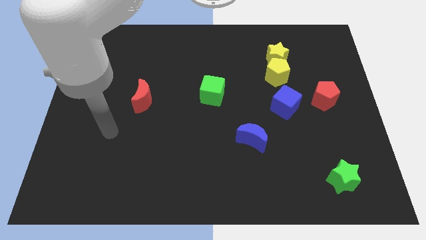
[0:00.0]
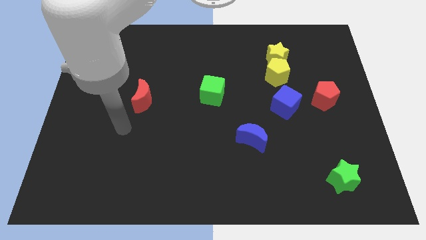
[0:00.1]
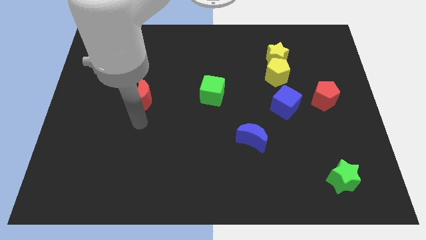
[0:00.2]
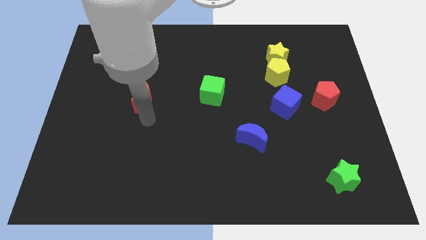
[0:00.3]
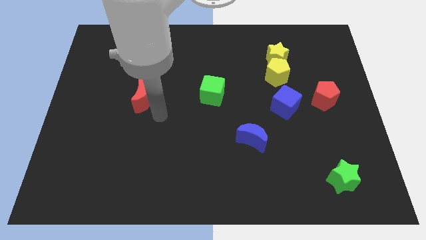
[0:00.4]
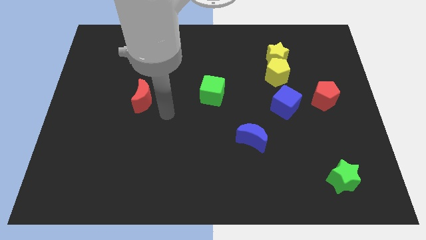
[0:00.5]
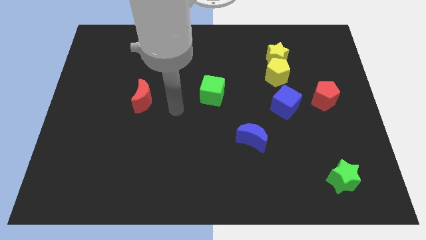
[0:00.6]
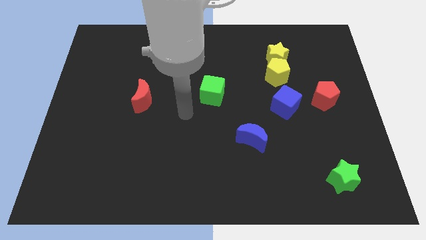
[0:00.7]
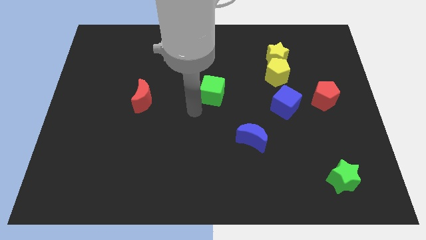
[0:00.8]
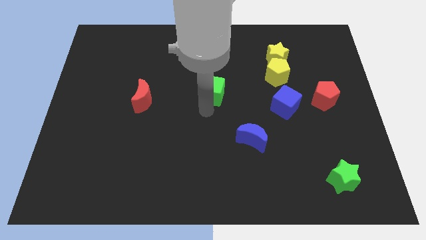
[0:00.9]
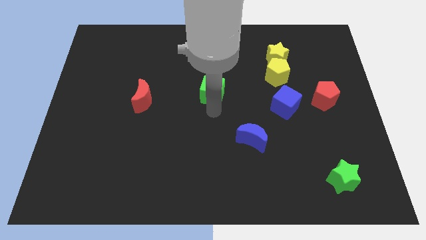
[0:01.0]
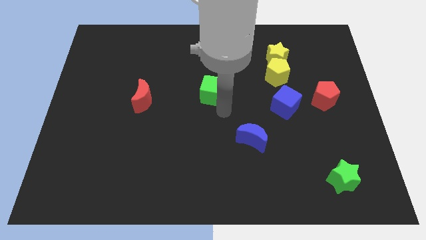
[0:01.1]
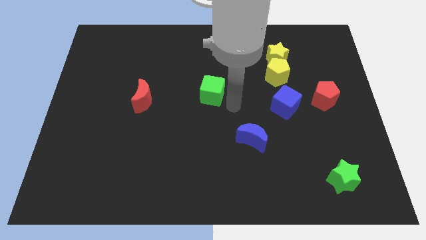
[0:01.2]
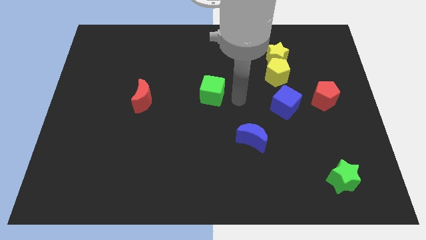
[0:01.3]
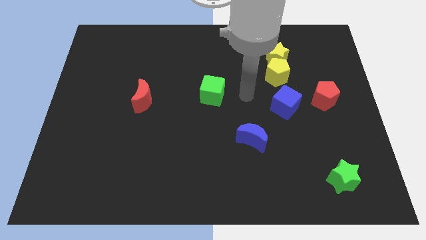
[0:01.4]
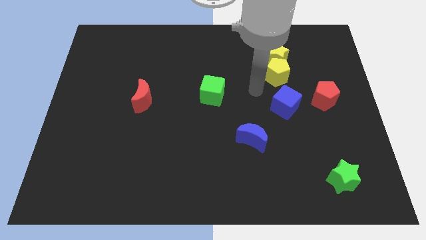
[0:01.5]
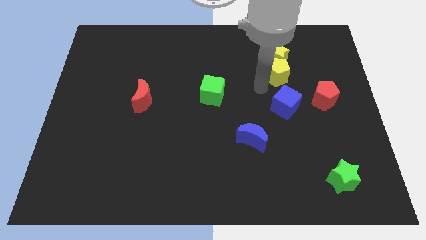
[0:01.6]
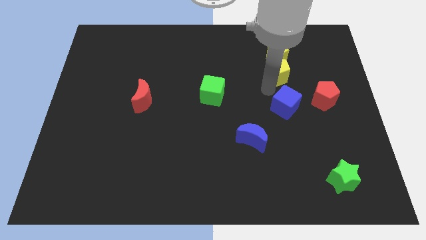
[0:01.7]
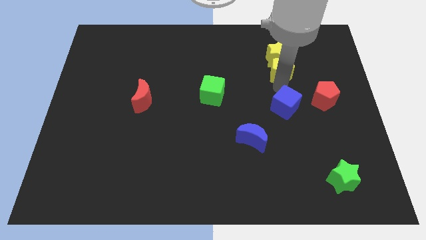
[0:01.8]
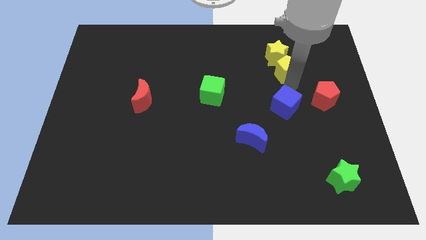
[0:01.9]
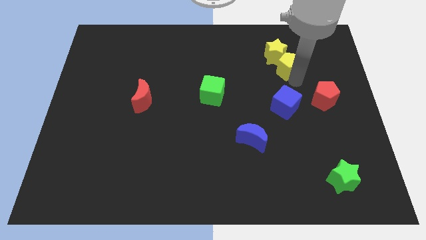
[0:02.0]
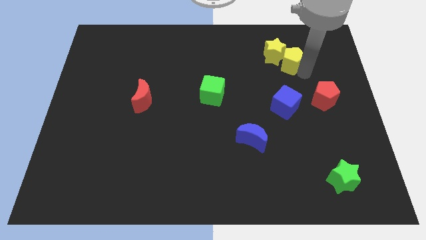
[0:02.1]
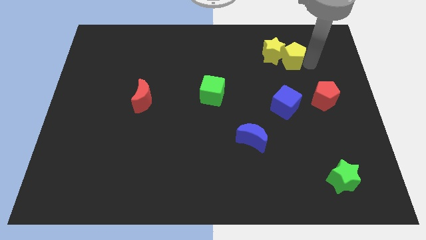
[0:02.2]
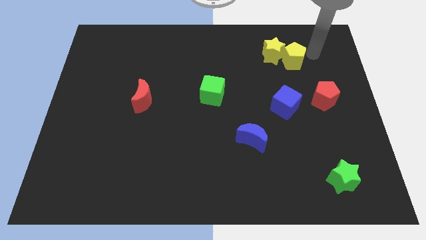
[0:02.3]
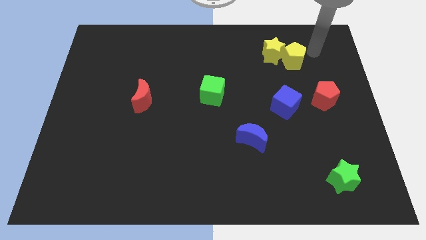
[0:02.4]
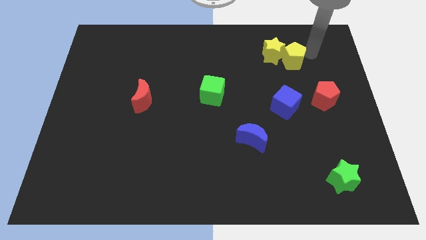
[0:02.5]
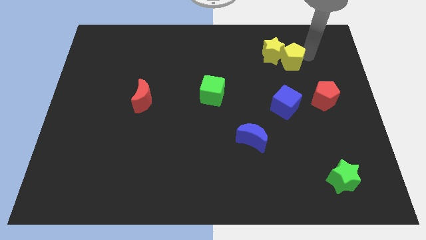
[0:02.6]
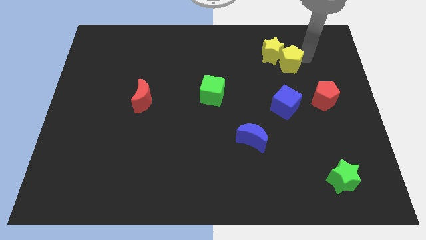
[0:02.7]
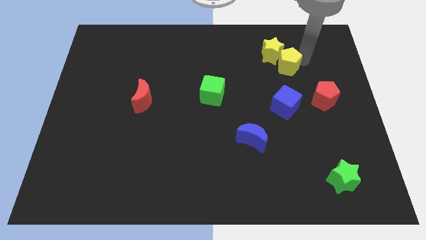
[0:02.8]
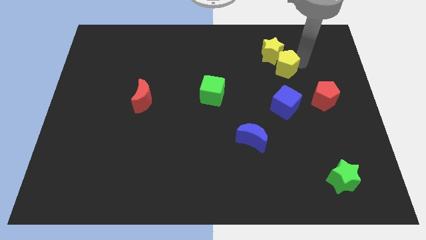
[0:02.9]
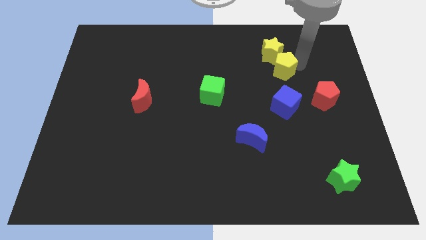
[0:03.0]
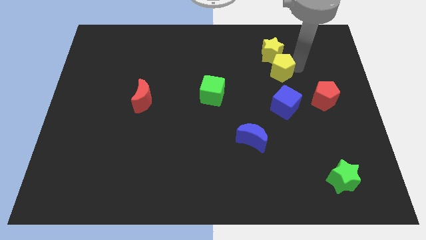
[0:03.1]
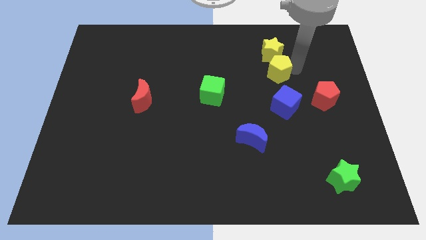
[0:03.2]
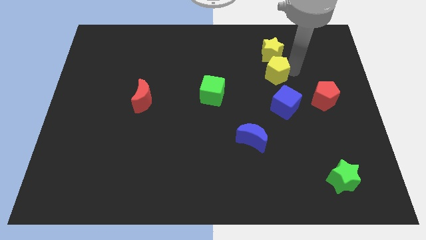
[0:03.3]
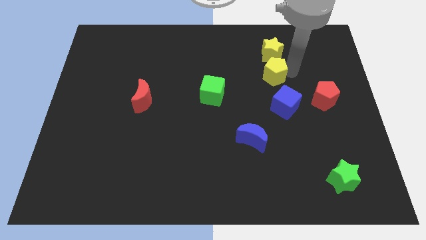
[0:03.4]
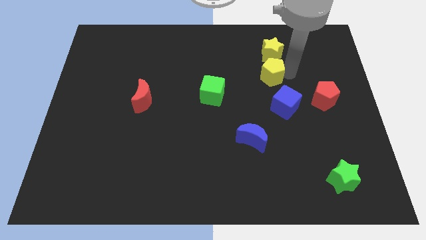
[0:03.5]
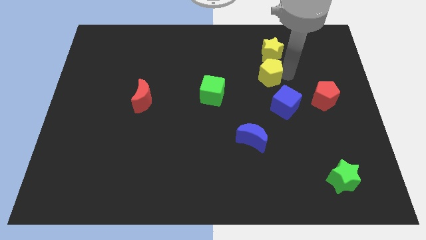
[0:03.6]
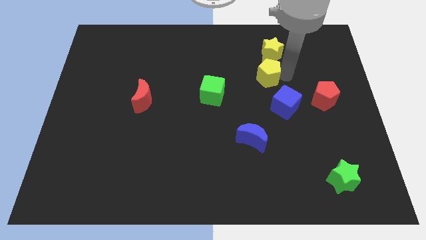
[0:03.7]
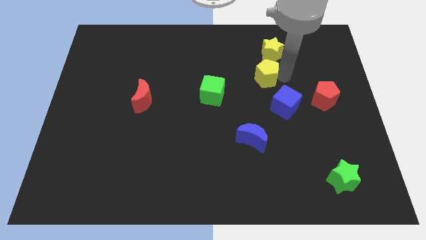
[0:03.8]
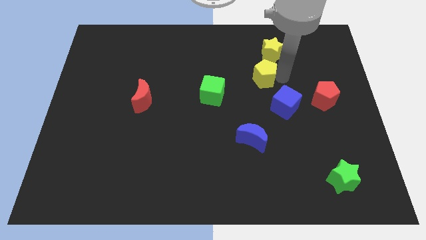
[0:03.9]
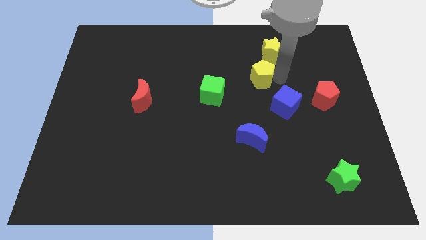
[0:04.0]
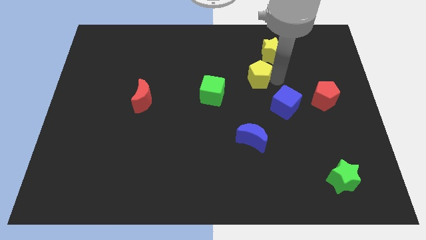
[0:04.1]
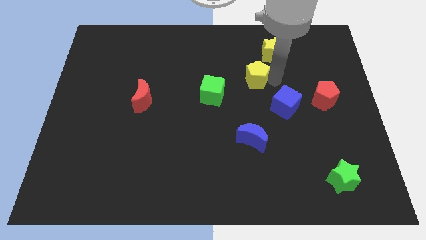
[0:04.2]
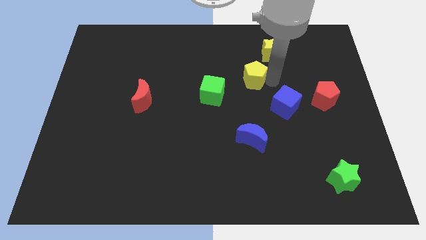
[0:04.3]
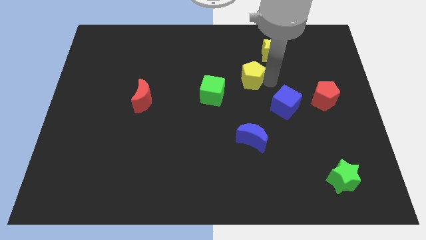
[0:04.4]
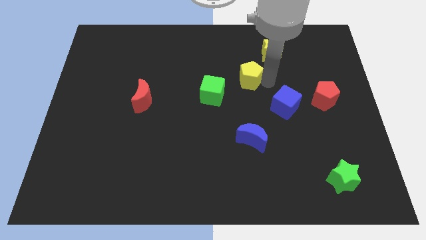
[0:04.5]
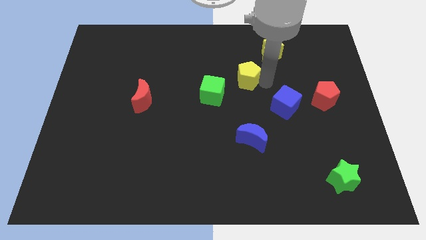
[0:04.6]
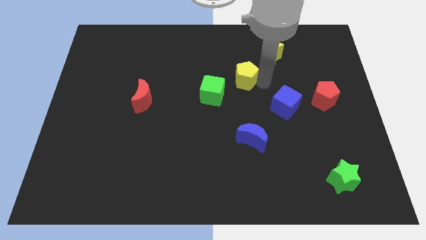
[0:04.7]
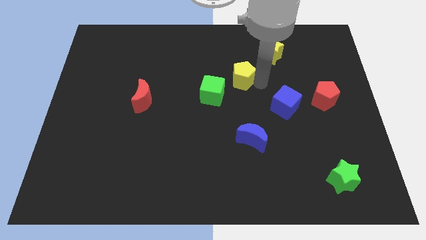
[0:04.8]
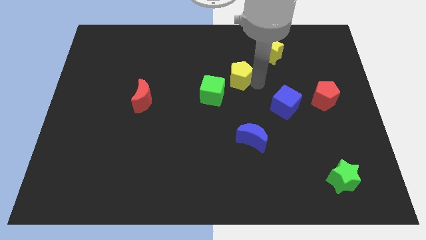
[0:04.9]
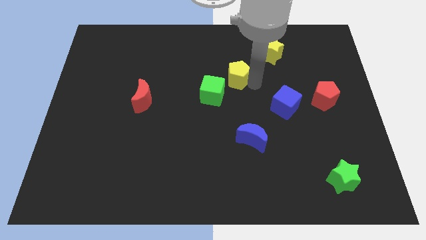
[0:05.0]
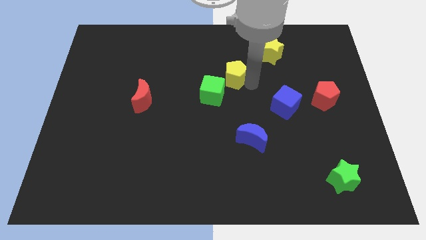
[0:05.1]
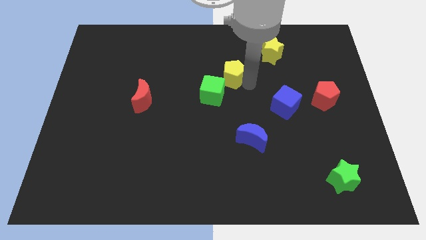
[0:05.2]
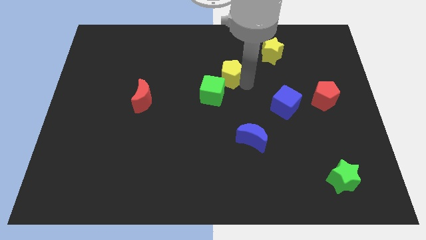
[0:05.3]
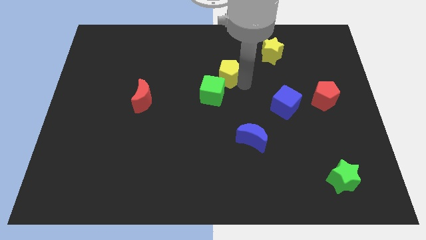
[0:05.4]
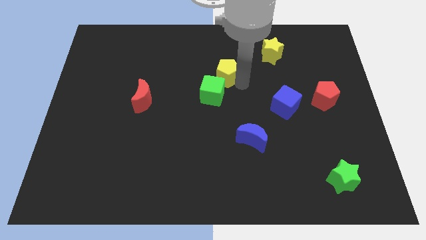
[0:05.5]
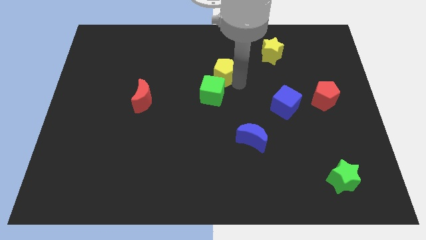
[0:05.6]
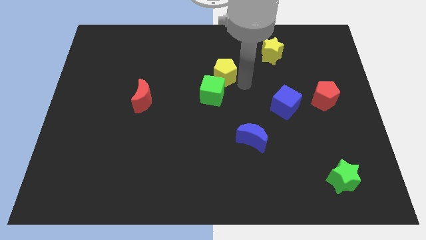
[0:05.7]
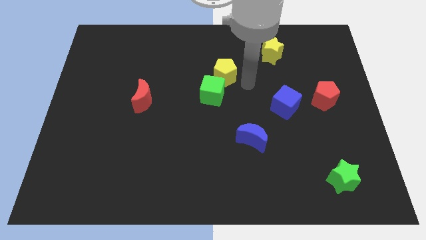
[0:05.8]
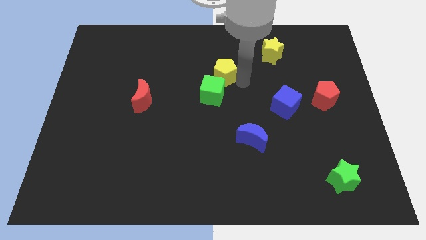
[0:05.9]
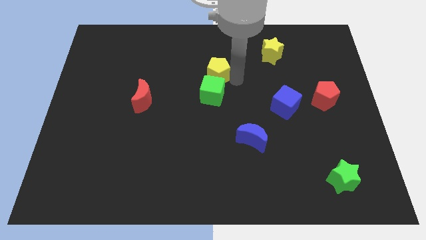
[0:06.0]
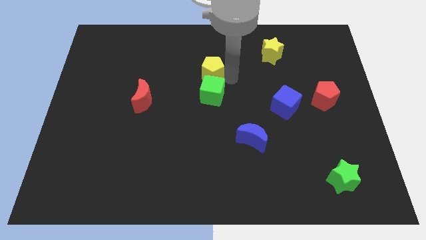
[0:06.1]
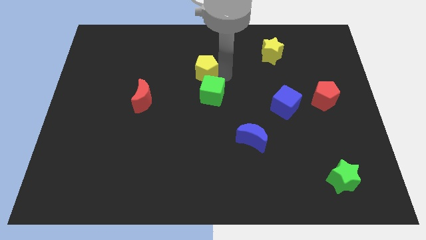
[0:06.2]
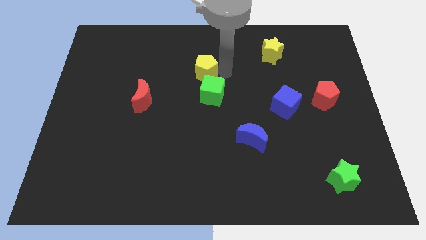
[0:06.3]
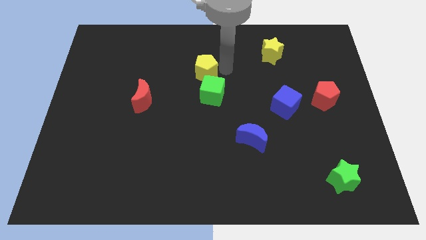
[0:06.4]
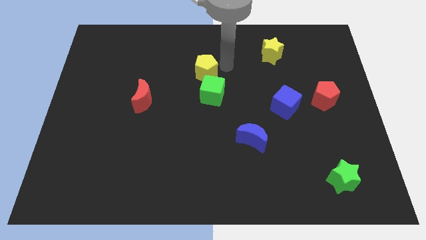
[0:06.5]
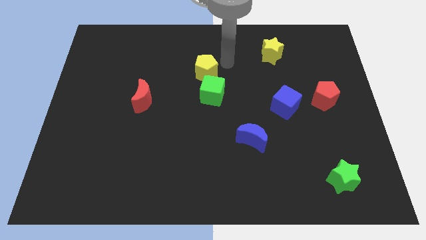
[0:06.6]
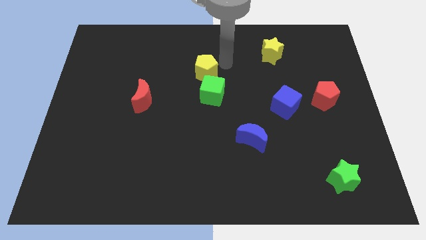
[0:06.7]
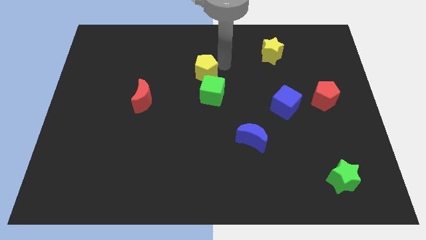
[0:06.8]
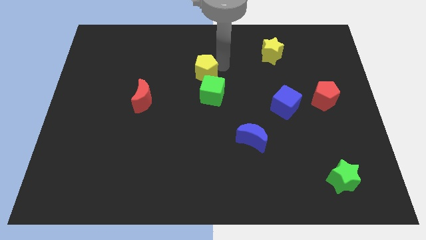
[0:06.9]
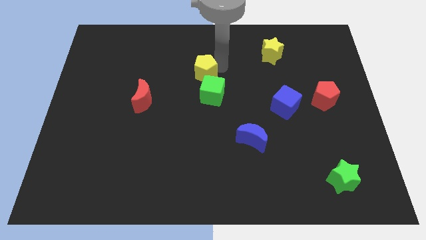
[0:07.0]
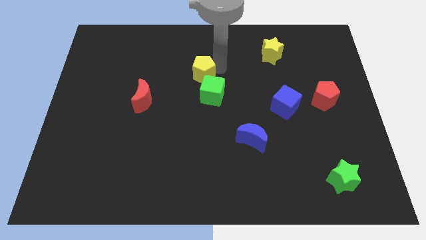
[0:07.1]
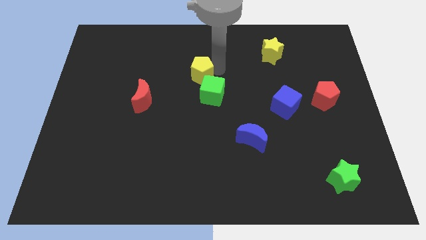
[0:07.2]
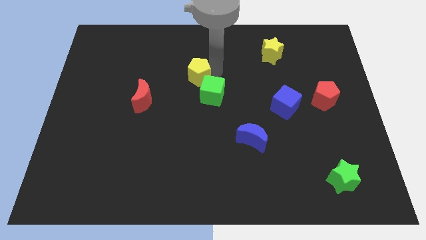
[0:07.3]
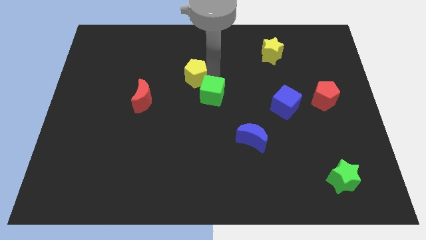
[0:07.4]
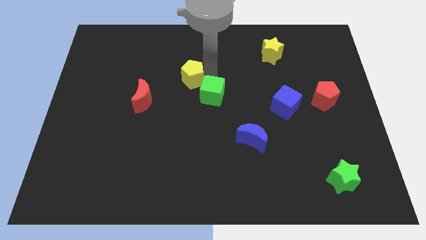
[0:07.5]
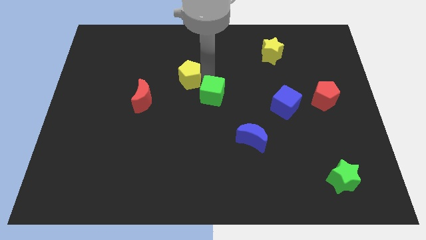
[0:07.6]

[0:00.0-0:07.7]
move the yellow pentagon left of the green cube
